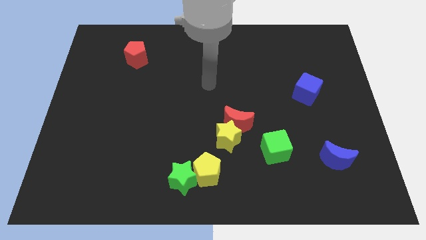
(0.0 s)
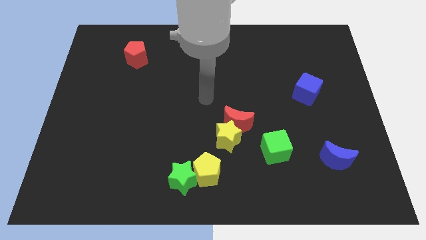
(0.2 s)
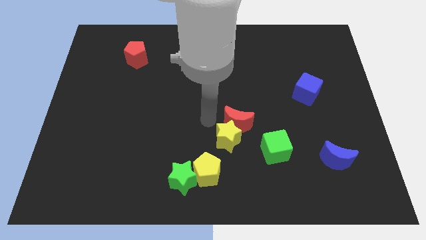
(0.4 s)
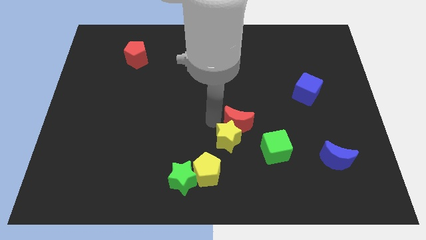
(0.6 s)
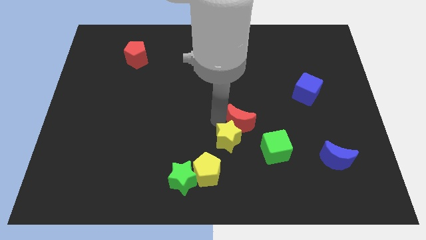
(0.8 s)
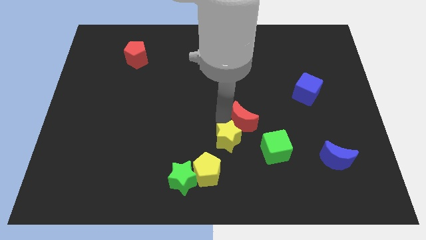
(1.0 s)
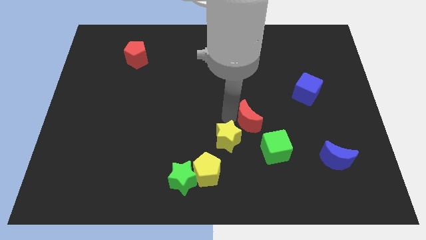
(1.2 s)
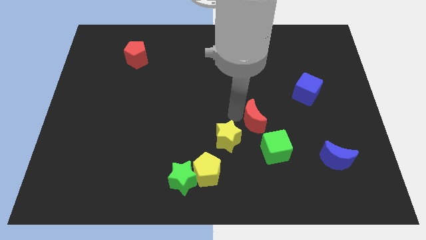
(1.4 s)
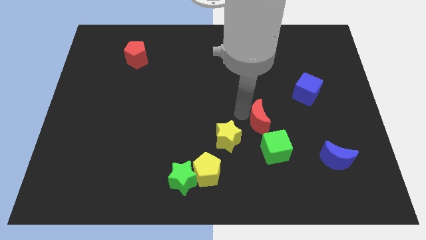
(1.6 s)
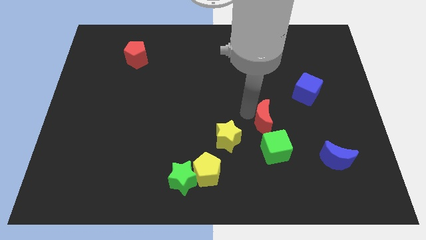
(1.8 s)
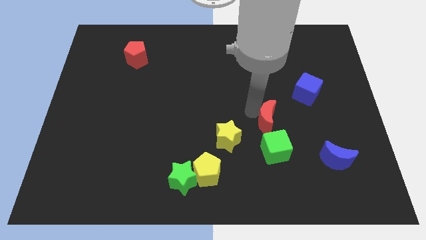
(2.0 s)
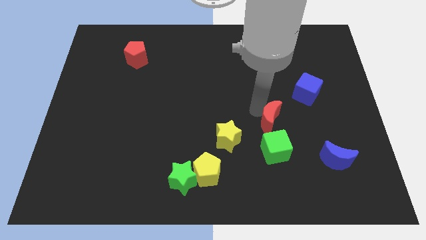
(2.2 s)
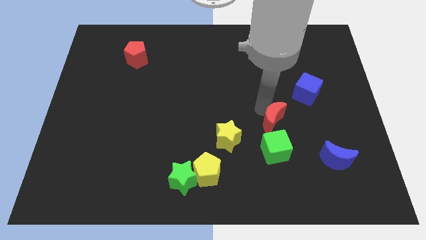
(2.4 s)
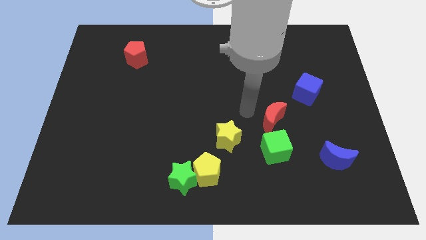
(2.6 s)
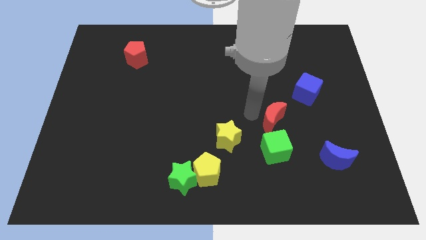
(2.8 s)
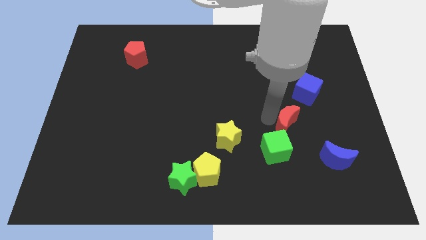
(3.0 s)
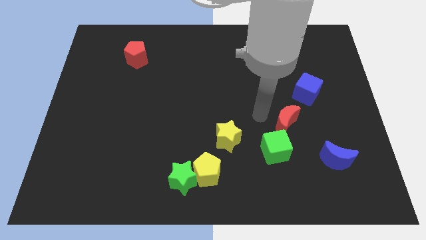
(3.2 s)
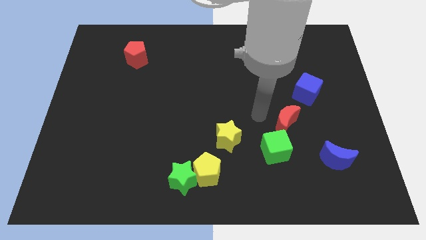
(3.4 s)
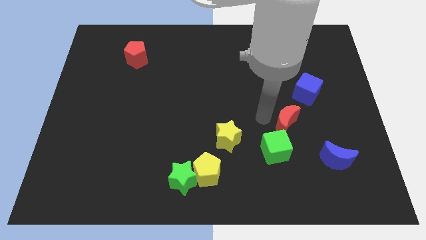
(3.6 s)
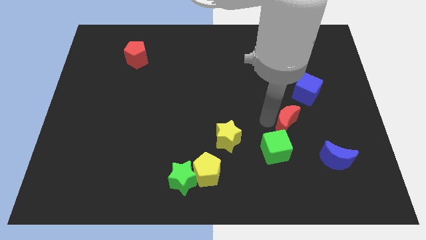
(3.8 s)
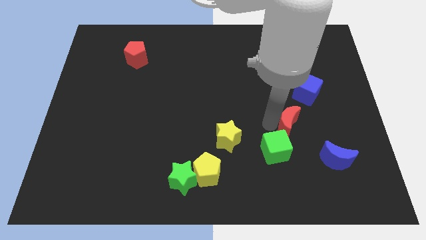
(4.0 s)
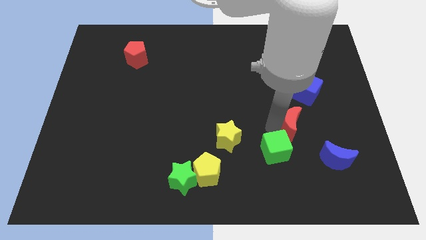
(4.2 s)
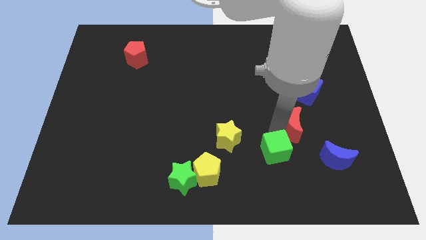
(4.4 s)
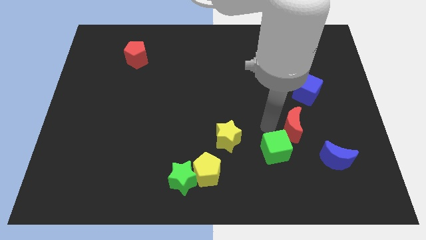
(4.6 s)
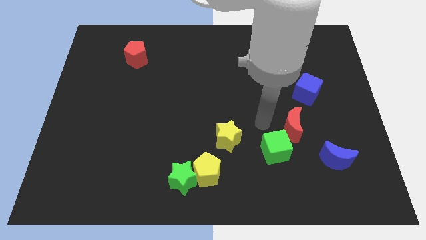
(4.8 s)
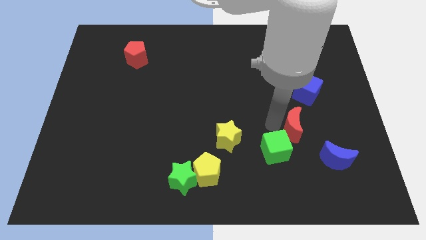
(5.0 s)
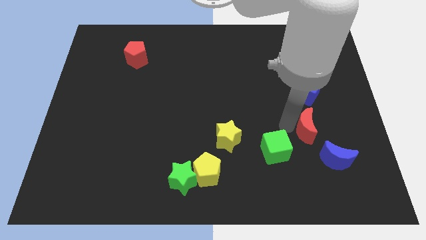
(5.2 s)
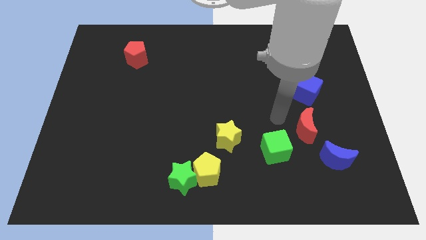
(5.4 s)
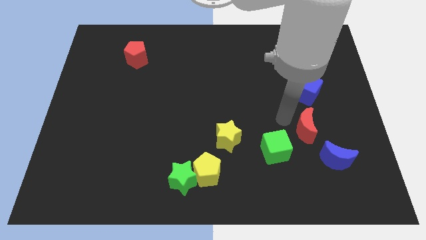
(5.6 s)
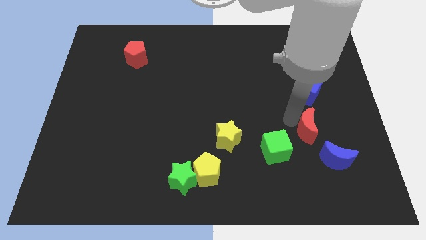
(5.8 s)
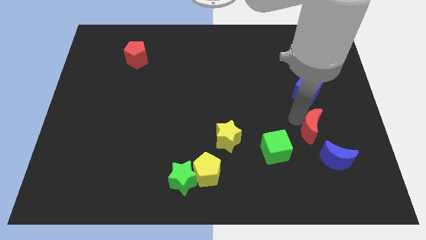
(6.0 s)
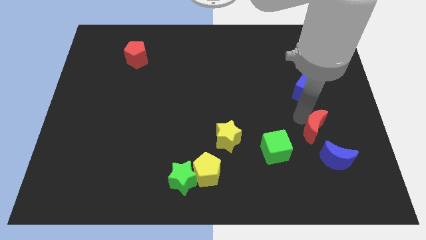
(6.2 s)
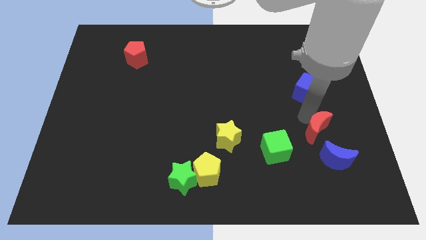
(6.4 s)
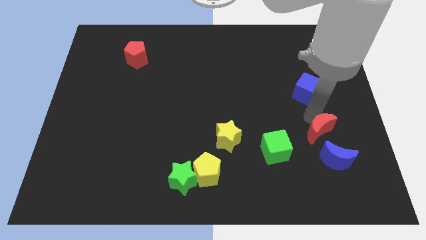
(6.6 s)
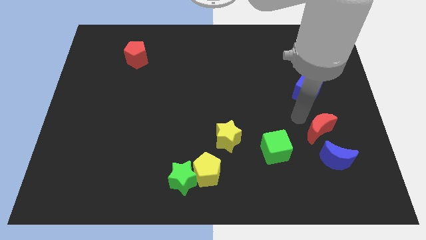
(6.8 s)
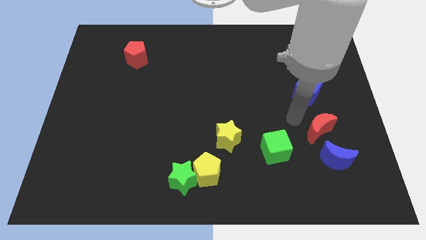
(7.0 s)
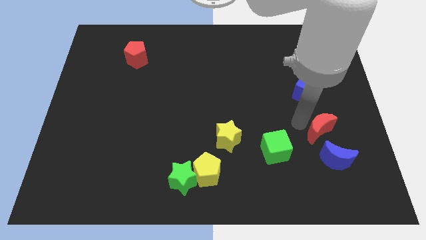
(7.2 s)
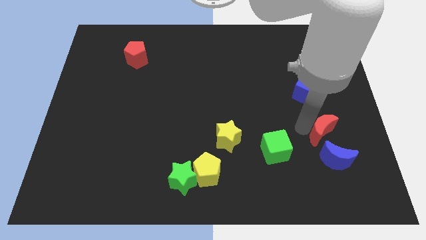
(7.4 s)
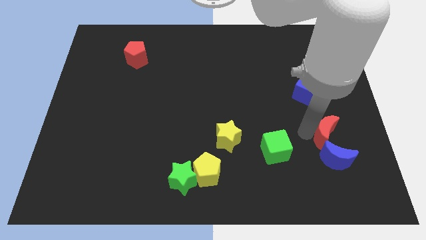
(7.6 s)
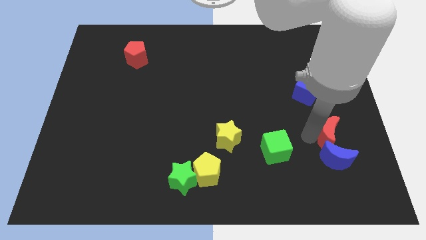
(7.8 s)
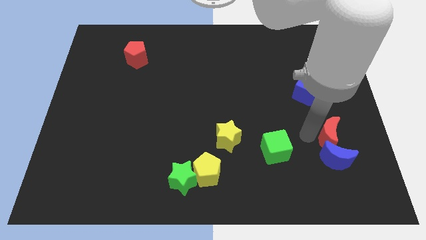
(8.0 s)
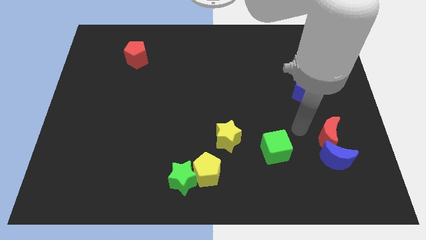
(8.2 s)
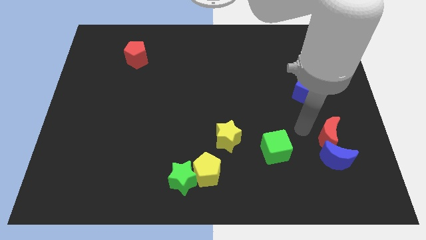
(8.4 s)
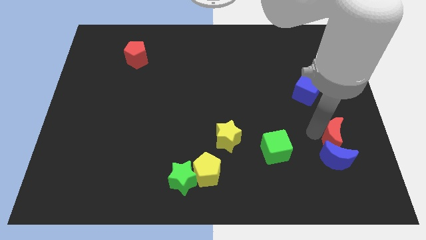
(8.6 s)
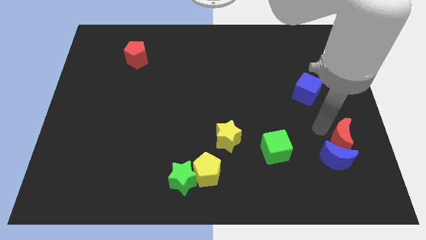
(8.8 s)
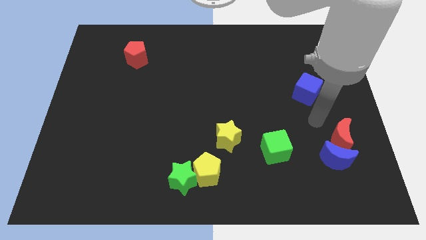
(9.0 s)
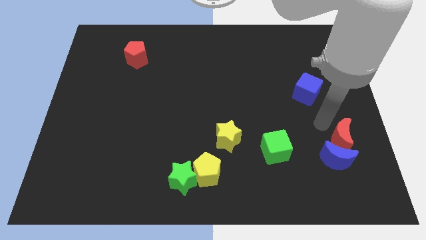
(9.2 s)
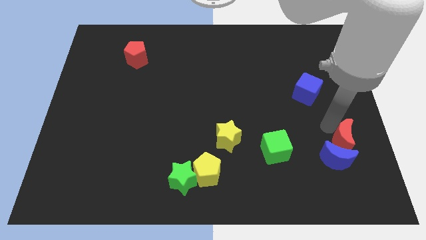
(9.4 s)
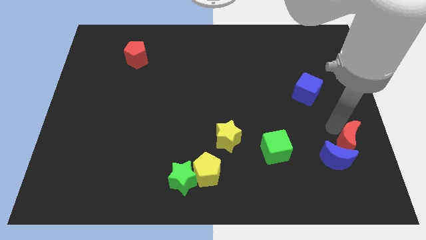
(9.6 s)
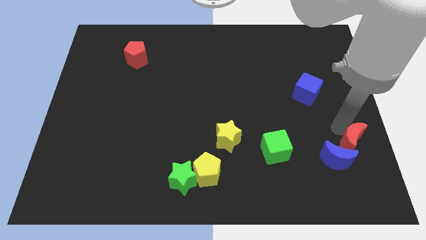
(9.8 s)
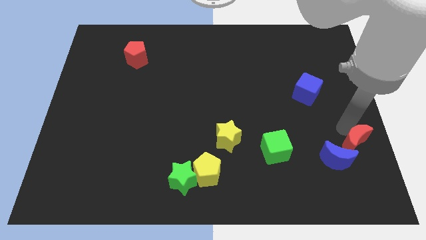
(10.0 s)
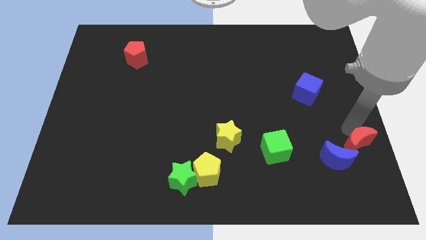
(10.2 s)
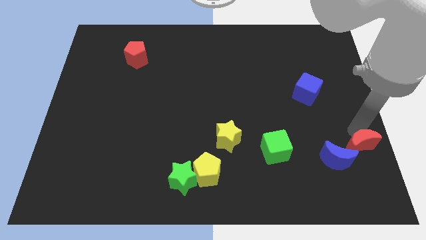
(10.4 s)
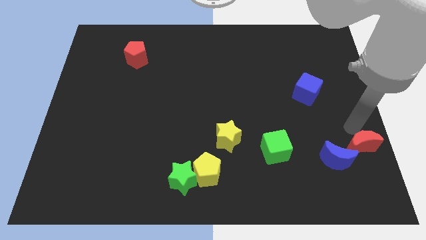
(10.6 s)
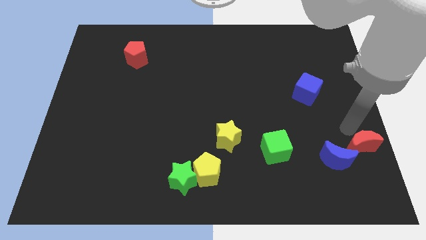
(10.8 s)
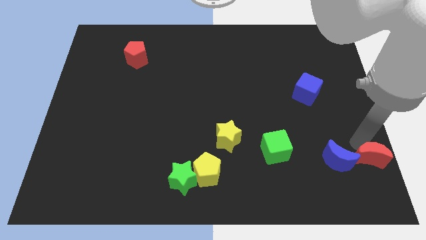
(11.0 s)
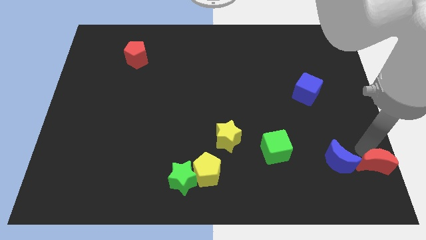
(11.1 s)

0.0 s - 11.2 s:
slide the red moon to the bottom right of the board

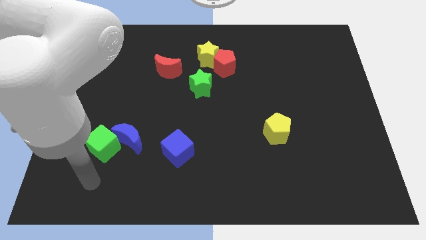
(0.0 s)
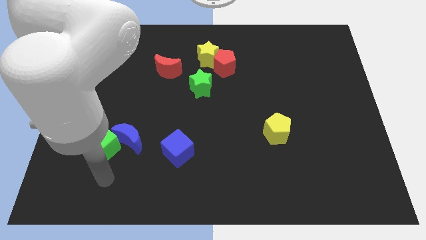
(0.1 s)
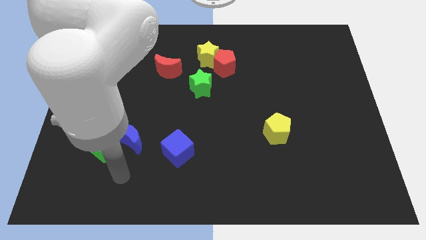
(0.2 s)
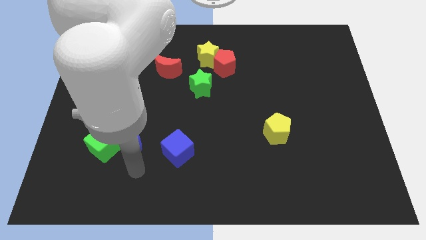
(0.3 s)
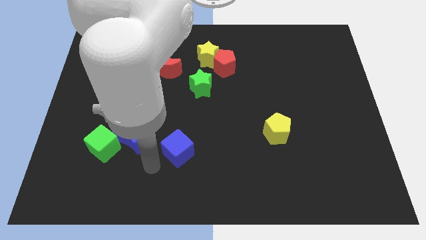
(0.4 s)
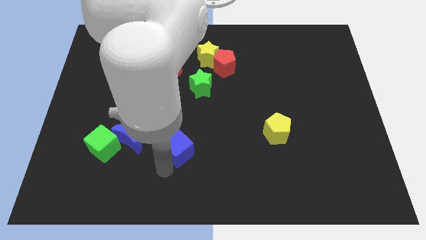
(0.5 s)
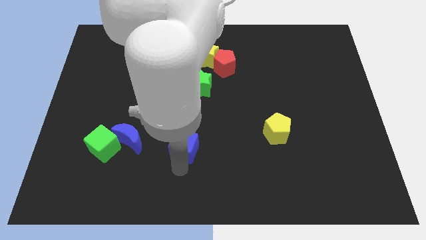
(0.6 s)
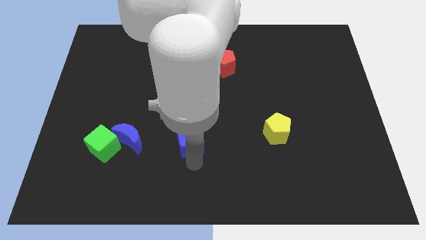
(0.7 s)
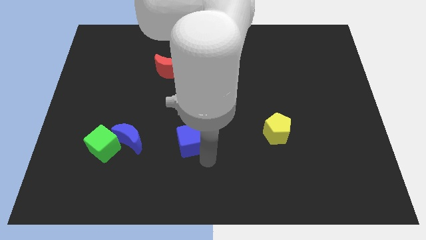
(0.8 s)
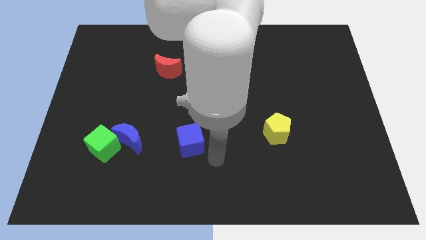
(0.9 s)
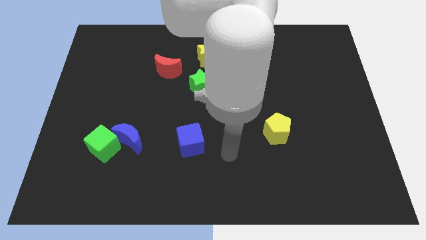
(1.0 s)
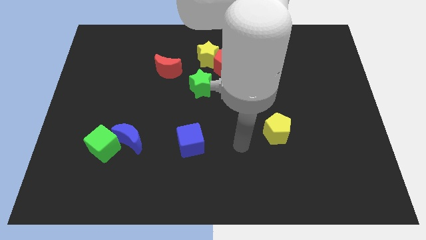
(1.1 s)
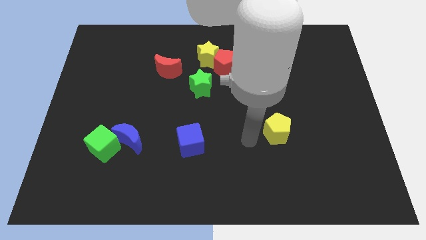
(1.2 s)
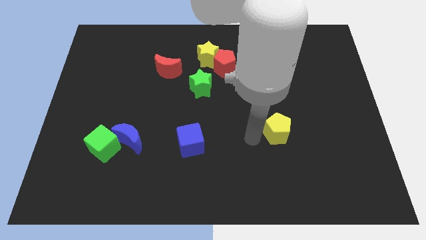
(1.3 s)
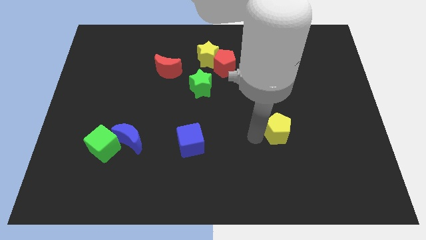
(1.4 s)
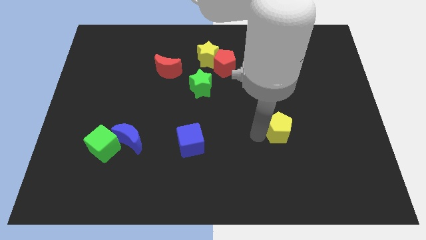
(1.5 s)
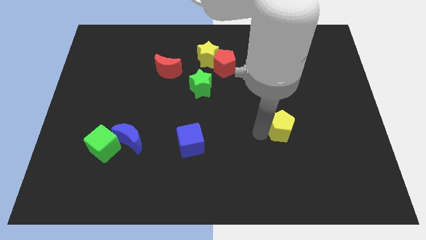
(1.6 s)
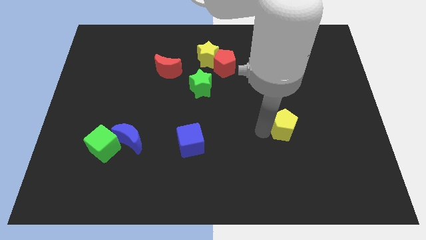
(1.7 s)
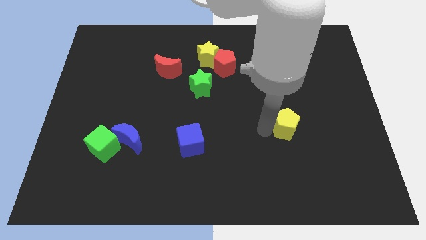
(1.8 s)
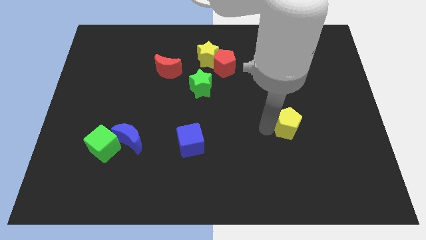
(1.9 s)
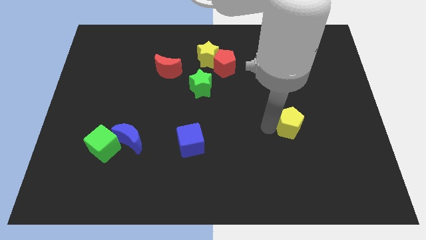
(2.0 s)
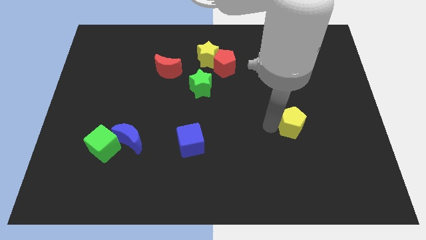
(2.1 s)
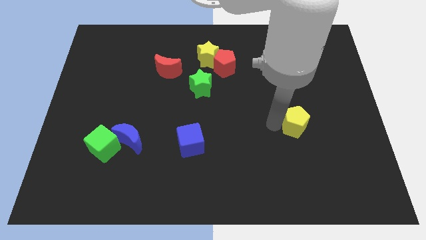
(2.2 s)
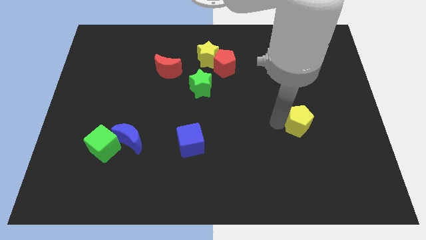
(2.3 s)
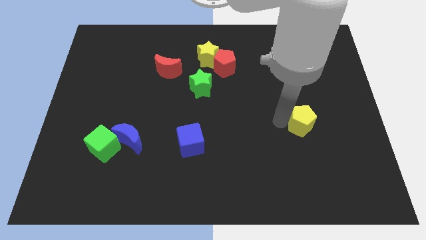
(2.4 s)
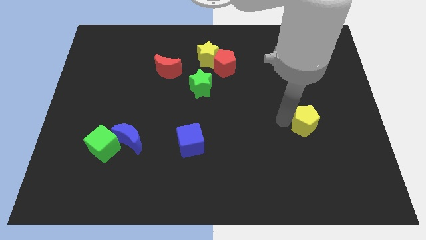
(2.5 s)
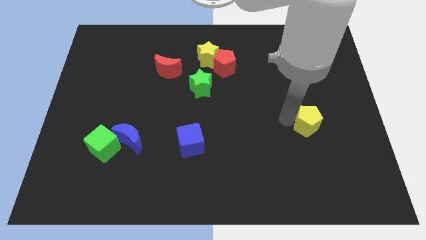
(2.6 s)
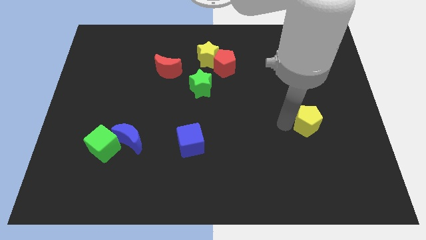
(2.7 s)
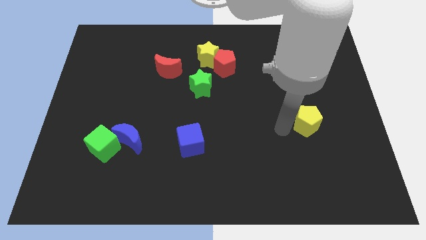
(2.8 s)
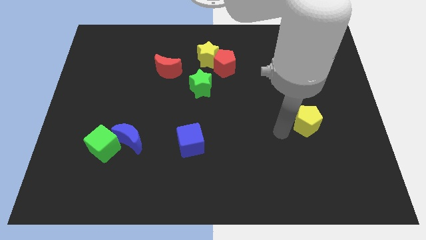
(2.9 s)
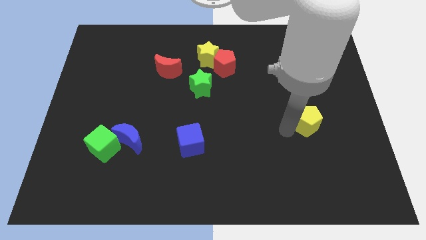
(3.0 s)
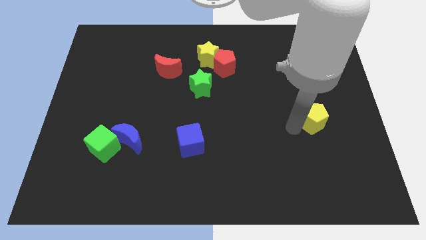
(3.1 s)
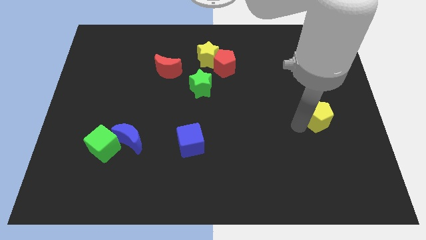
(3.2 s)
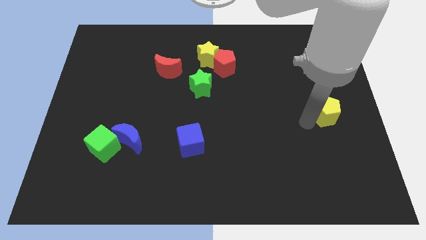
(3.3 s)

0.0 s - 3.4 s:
put the yellow pentagon to the center right
